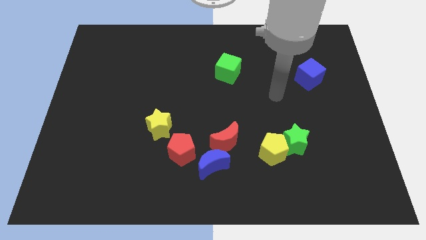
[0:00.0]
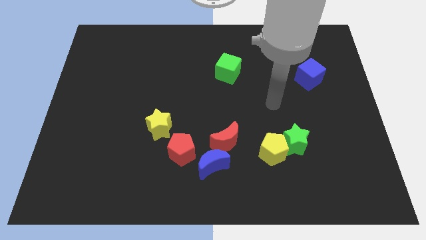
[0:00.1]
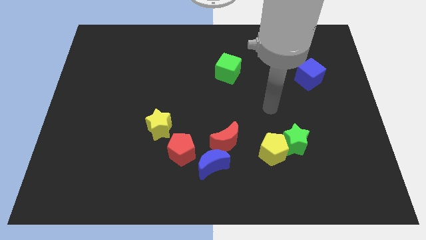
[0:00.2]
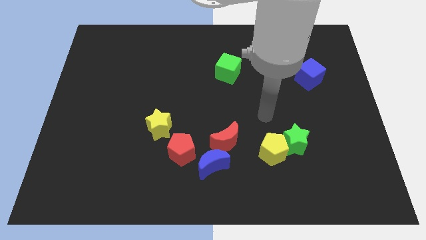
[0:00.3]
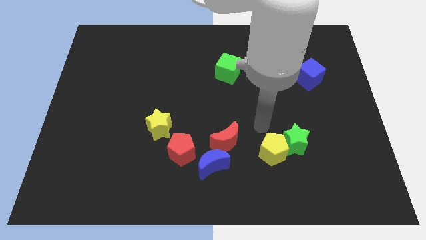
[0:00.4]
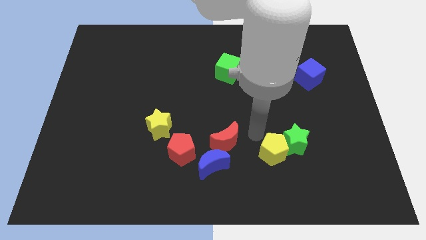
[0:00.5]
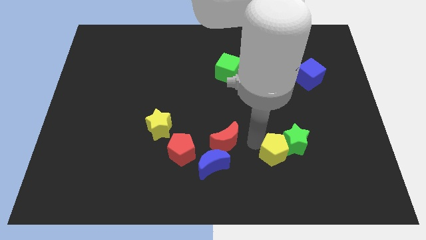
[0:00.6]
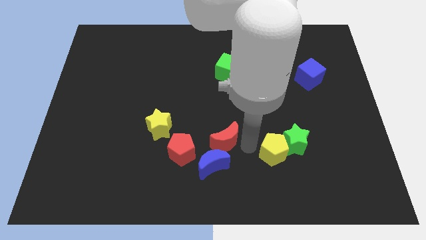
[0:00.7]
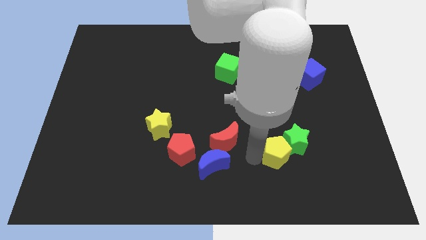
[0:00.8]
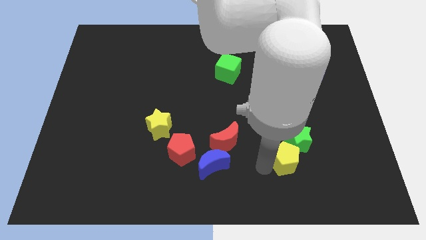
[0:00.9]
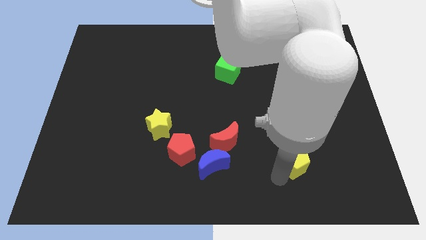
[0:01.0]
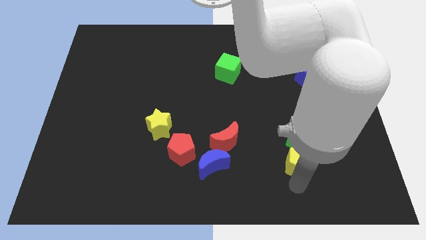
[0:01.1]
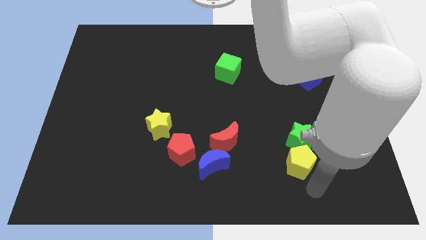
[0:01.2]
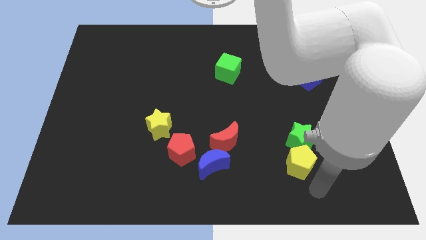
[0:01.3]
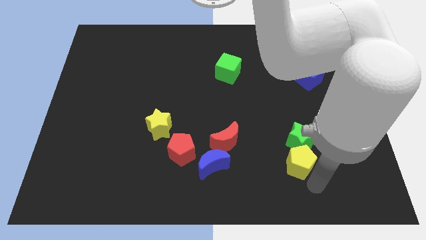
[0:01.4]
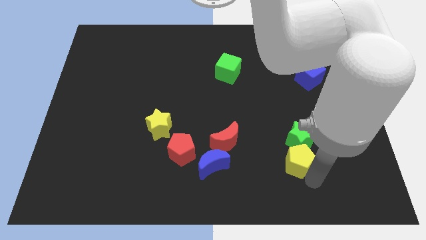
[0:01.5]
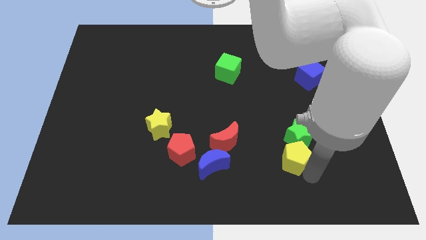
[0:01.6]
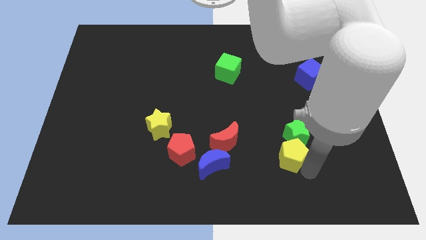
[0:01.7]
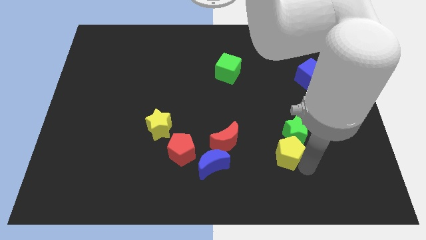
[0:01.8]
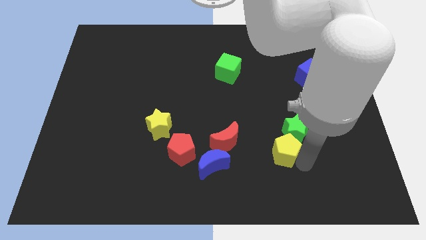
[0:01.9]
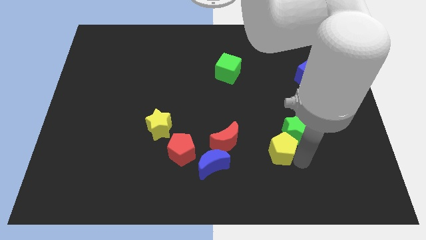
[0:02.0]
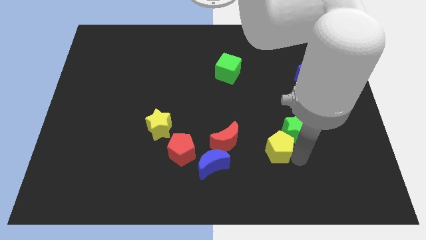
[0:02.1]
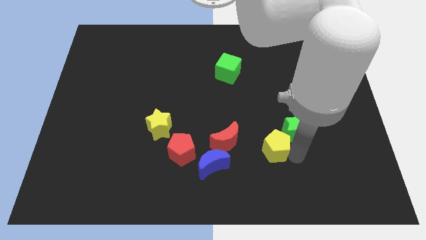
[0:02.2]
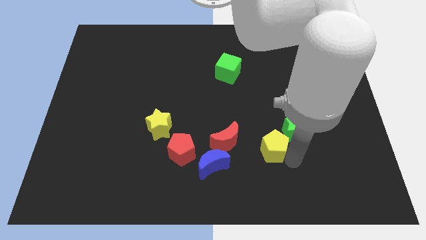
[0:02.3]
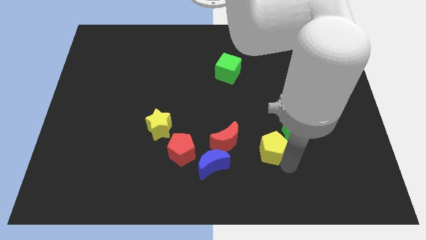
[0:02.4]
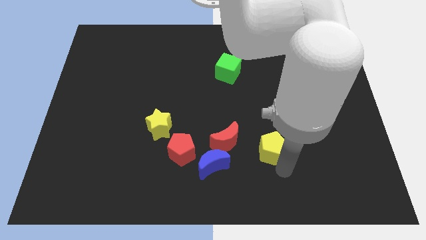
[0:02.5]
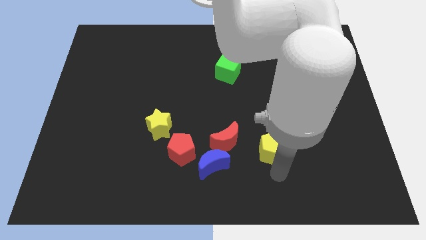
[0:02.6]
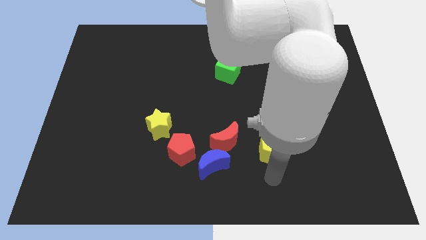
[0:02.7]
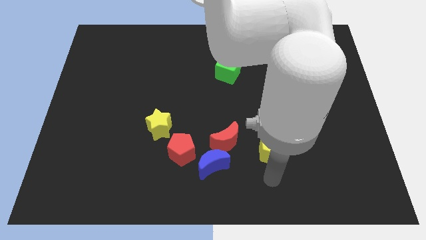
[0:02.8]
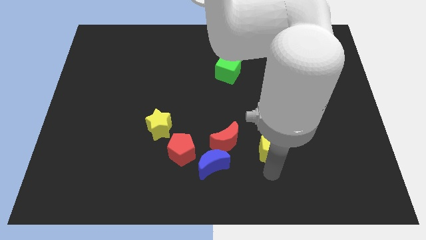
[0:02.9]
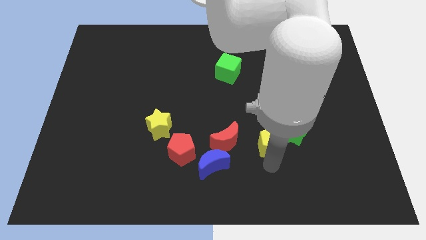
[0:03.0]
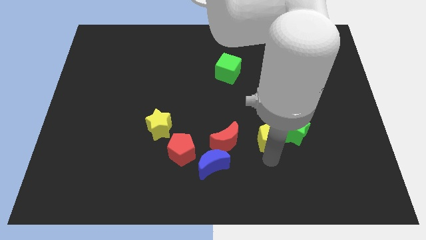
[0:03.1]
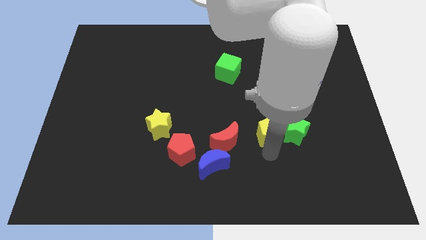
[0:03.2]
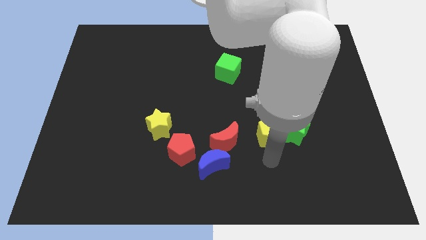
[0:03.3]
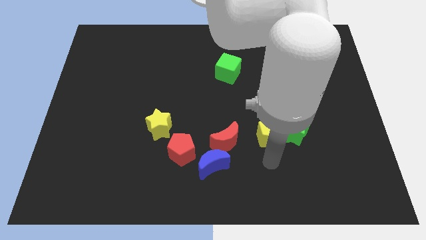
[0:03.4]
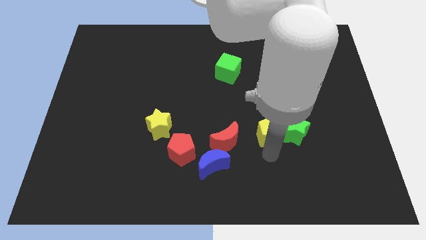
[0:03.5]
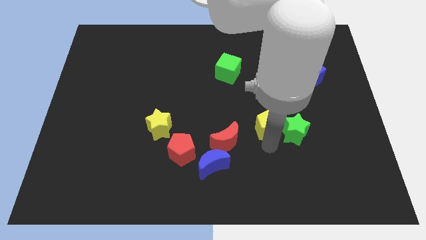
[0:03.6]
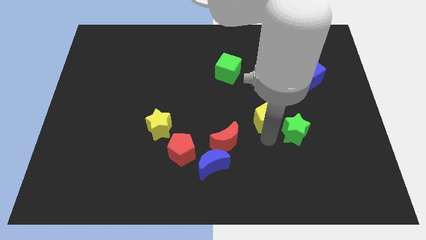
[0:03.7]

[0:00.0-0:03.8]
slightly slide the yellow pentagon upwards

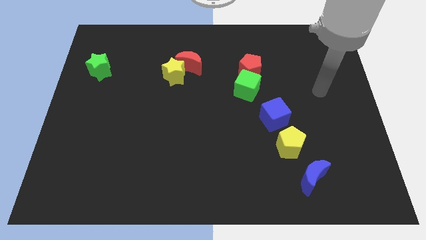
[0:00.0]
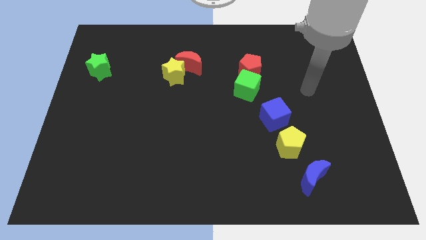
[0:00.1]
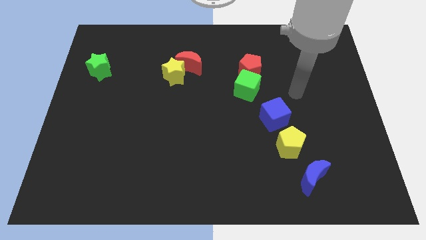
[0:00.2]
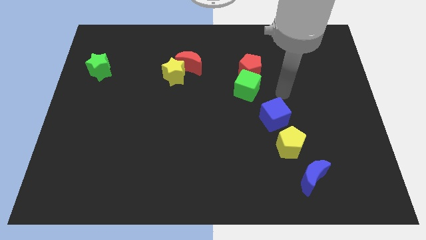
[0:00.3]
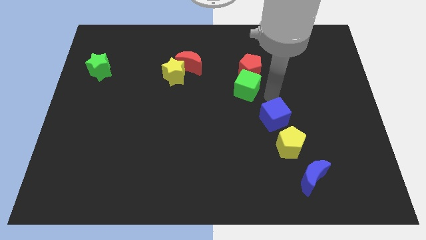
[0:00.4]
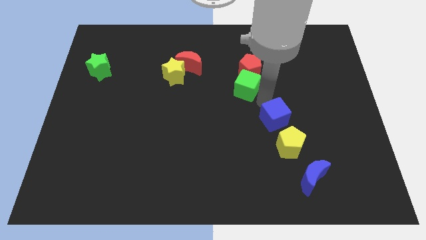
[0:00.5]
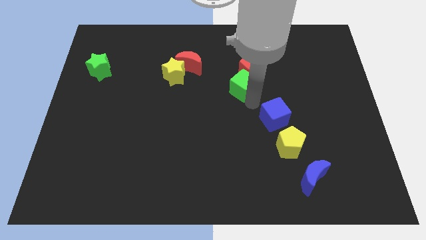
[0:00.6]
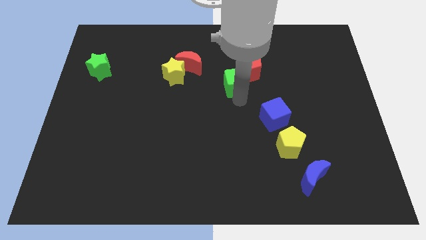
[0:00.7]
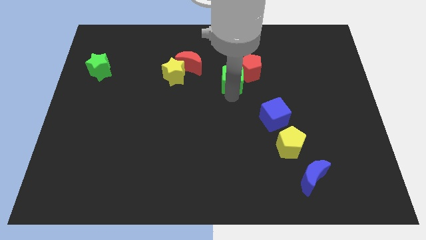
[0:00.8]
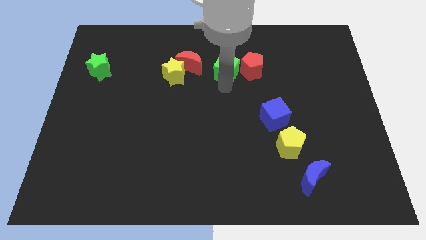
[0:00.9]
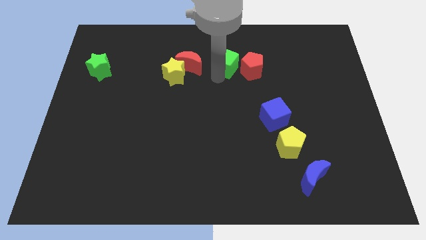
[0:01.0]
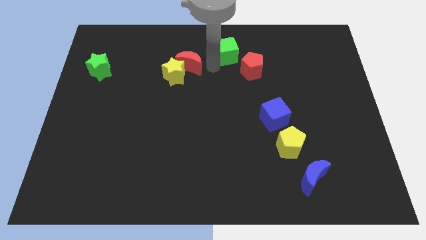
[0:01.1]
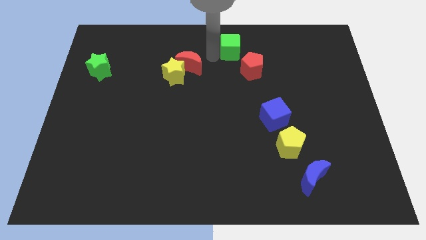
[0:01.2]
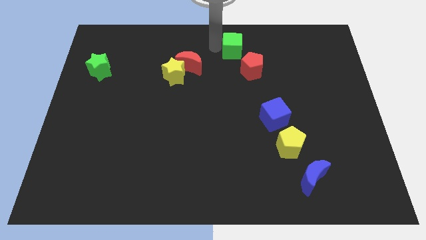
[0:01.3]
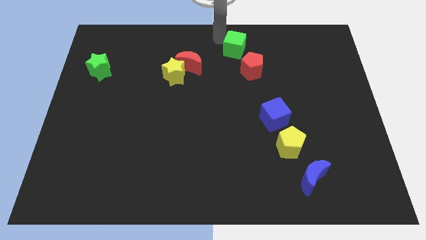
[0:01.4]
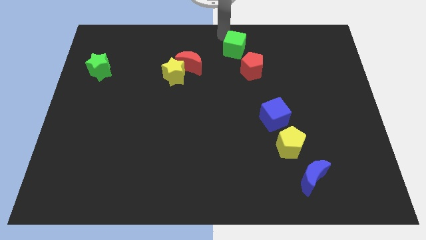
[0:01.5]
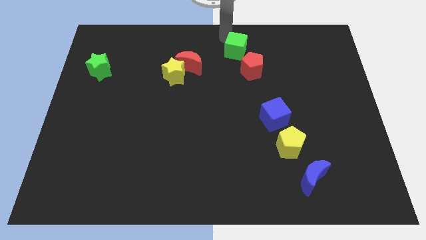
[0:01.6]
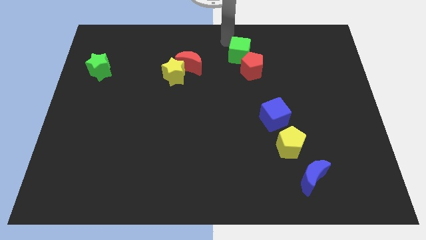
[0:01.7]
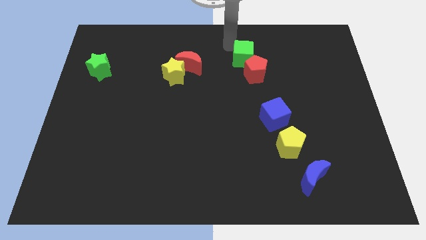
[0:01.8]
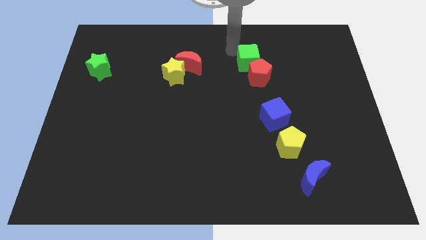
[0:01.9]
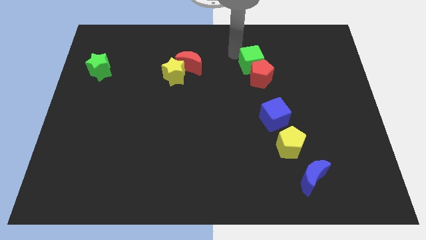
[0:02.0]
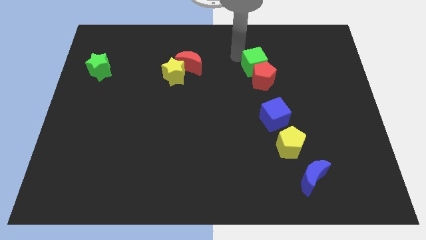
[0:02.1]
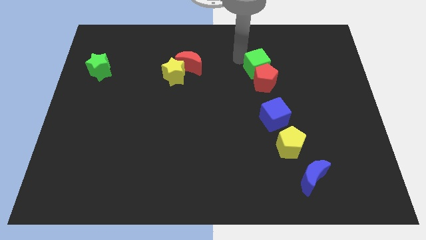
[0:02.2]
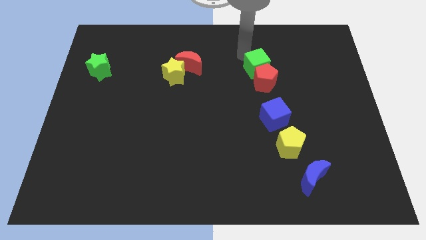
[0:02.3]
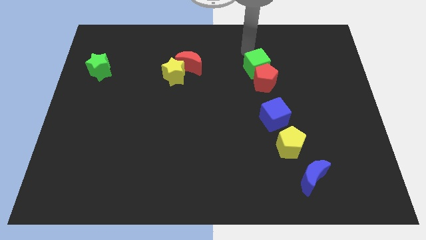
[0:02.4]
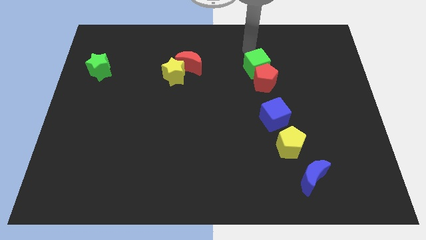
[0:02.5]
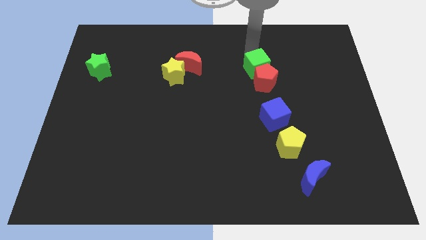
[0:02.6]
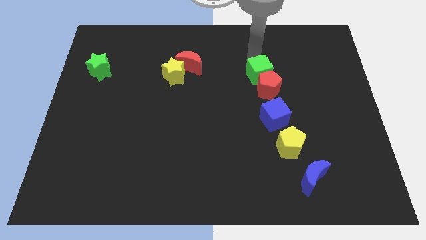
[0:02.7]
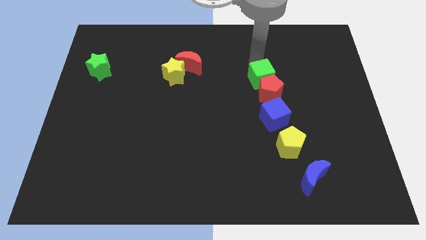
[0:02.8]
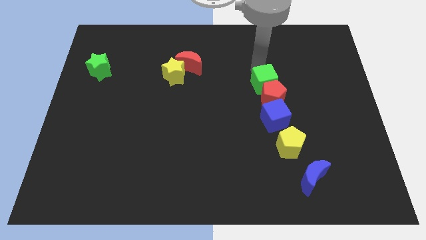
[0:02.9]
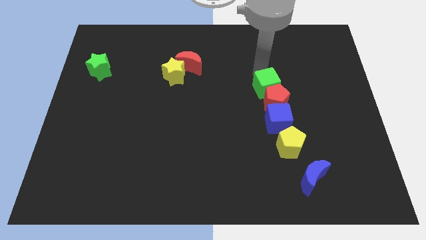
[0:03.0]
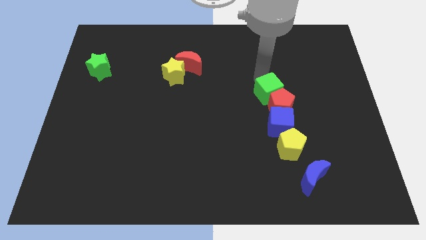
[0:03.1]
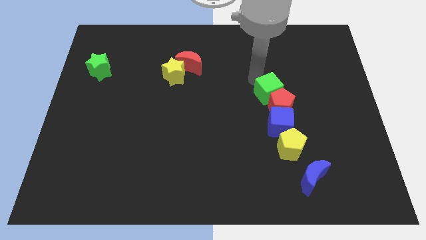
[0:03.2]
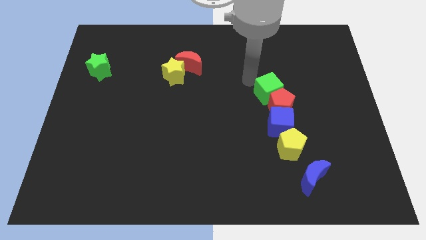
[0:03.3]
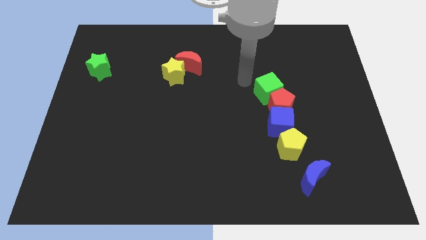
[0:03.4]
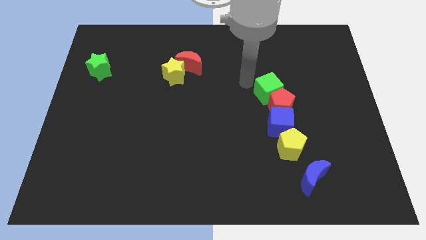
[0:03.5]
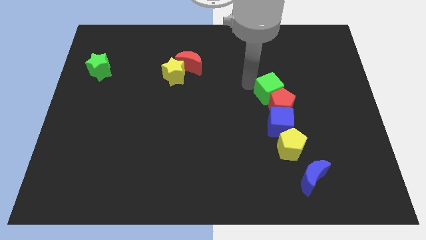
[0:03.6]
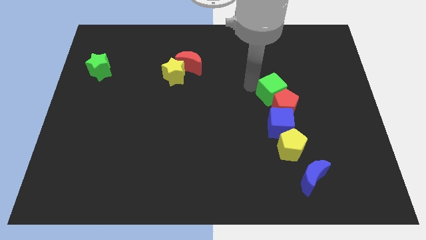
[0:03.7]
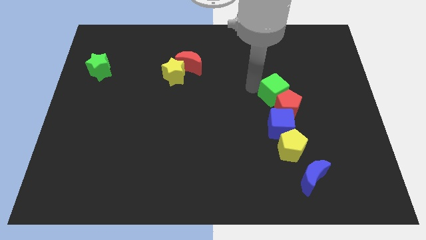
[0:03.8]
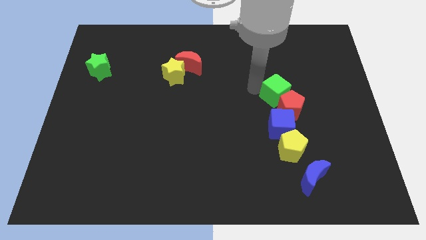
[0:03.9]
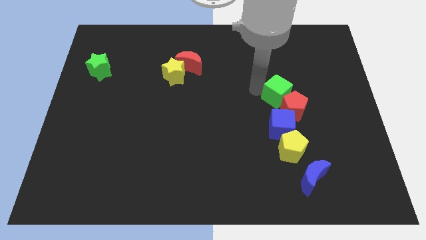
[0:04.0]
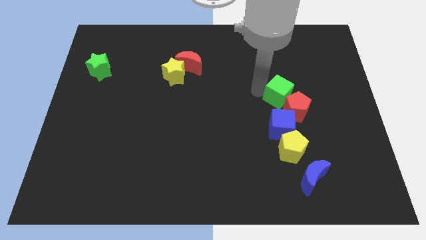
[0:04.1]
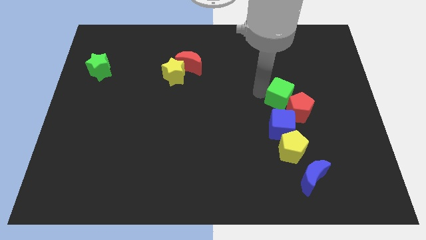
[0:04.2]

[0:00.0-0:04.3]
slide the green cube down and right somewhat

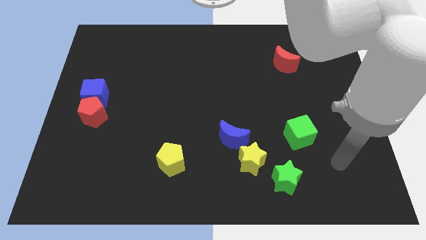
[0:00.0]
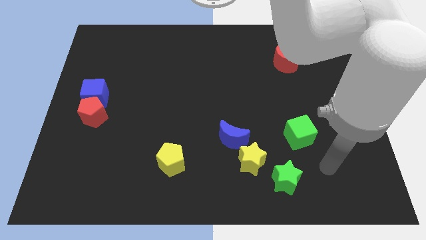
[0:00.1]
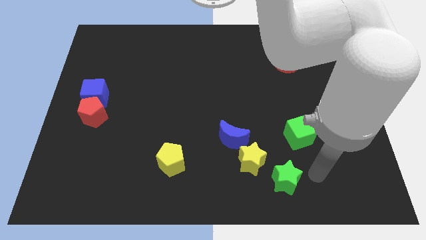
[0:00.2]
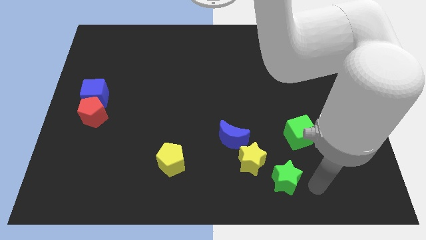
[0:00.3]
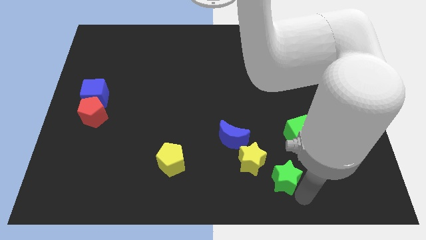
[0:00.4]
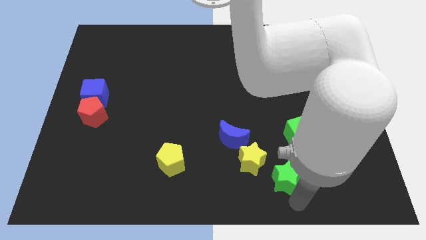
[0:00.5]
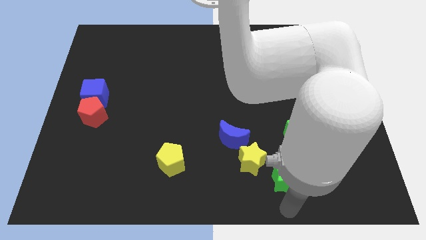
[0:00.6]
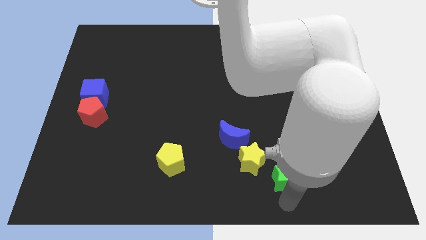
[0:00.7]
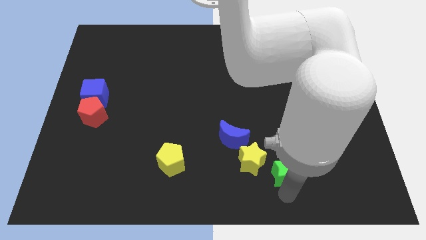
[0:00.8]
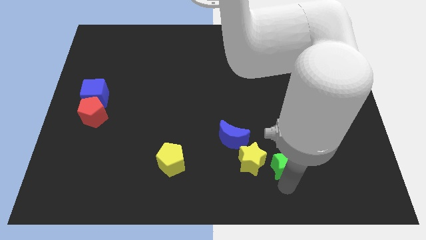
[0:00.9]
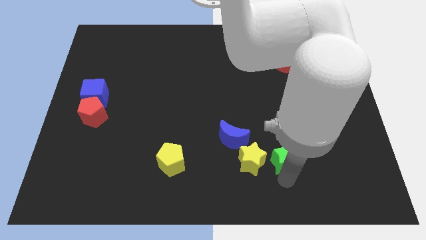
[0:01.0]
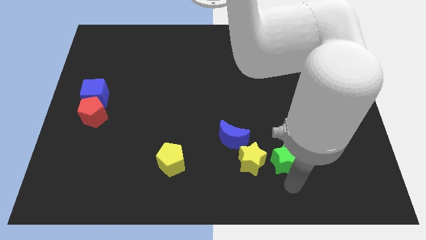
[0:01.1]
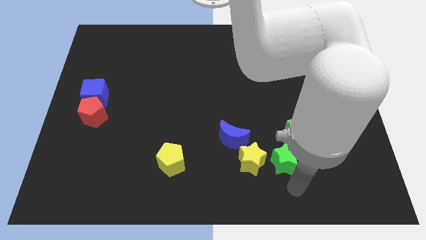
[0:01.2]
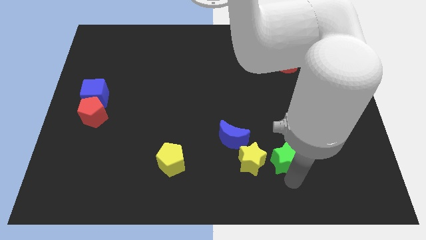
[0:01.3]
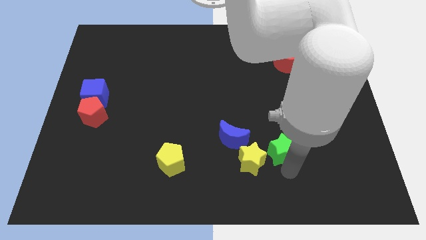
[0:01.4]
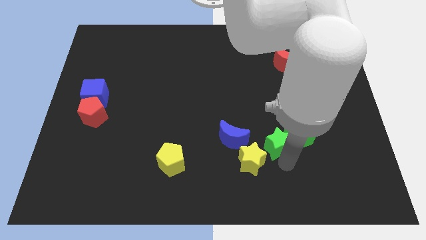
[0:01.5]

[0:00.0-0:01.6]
push the green star upwards slightly
